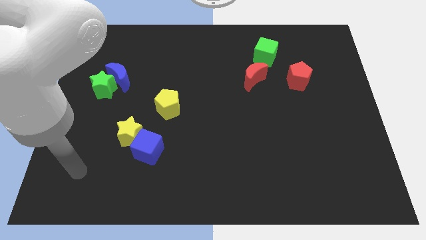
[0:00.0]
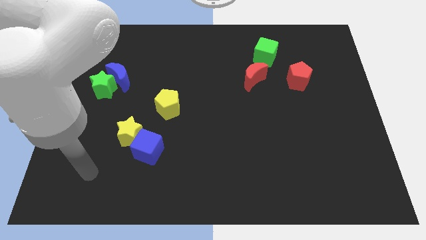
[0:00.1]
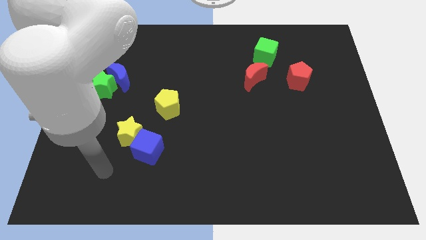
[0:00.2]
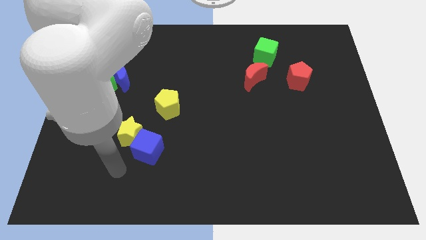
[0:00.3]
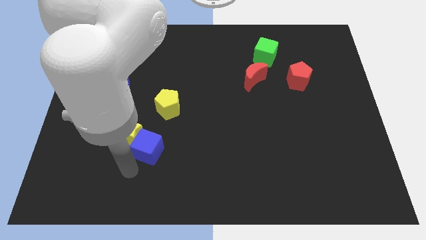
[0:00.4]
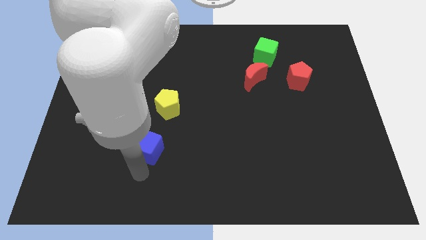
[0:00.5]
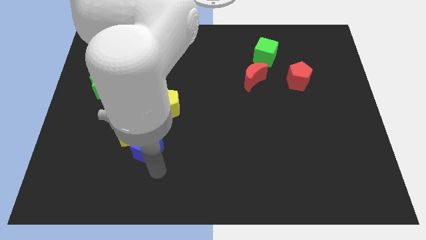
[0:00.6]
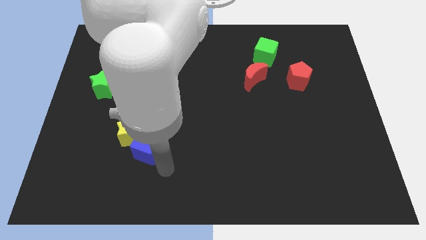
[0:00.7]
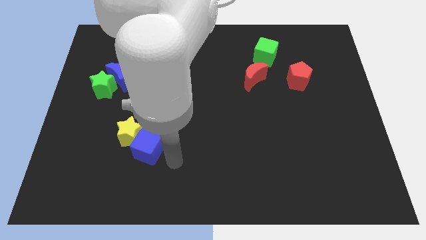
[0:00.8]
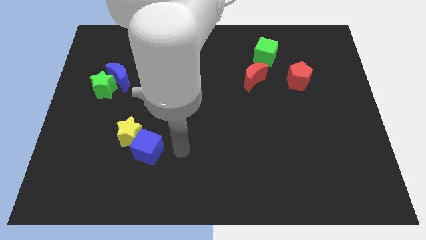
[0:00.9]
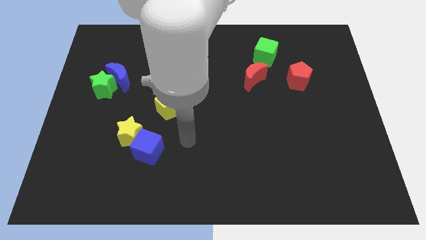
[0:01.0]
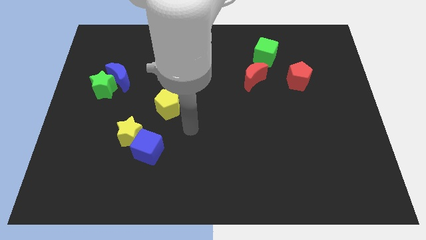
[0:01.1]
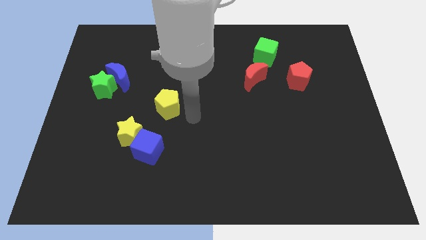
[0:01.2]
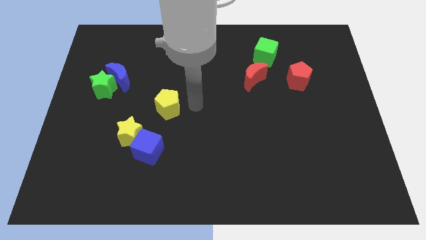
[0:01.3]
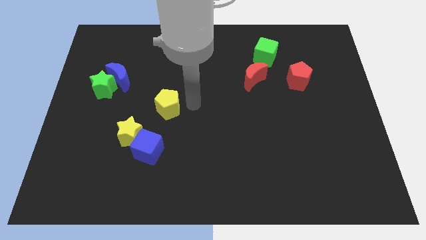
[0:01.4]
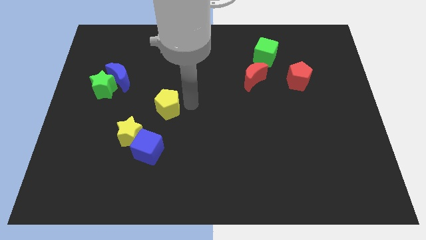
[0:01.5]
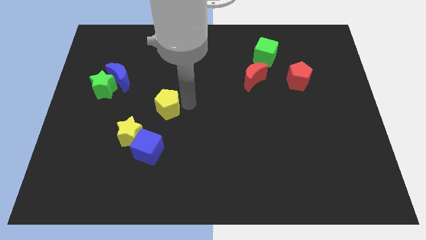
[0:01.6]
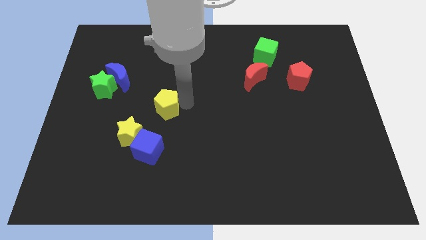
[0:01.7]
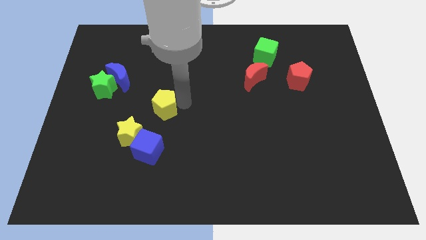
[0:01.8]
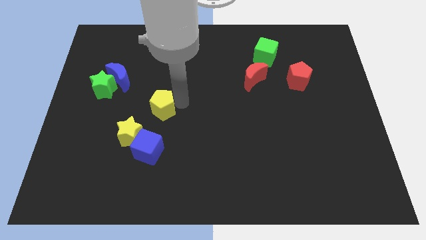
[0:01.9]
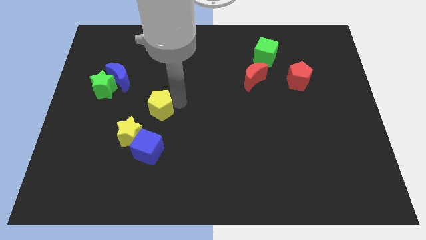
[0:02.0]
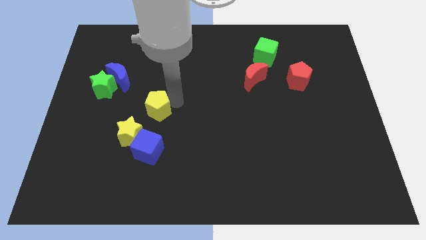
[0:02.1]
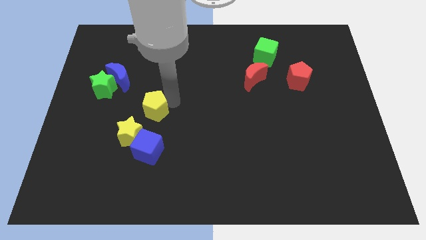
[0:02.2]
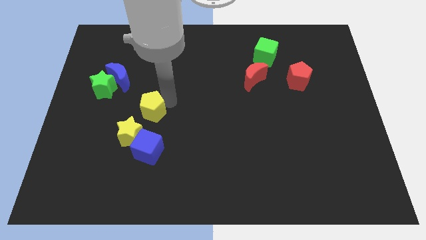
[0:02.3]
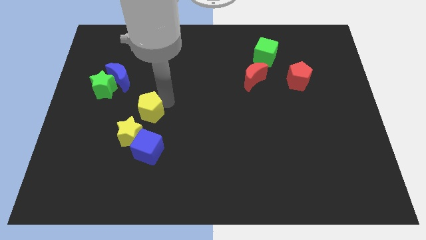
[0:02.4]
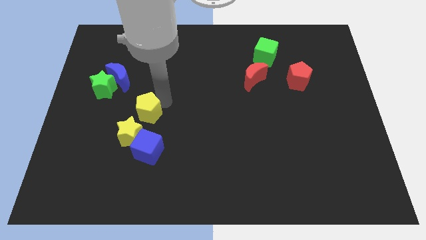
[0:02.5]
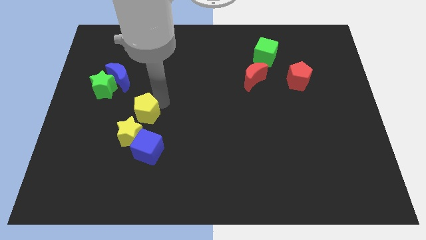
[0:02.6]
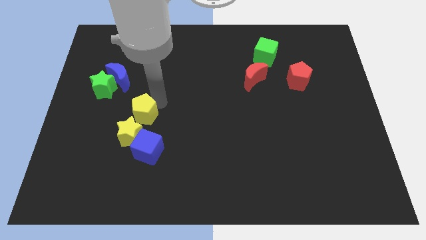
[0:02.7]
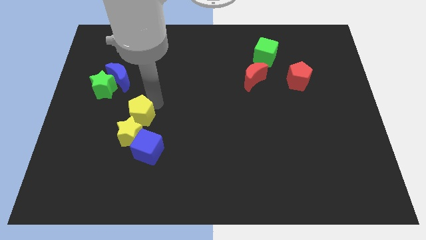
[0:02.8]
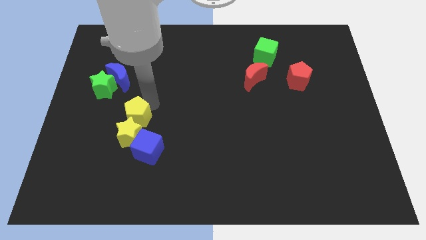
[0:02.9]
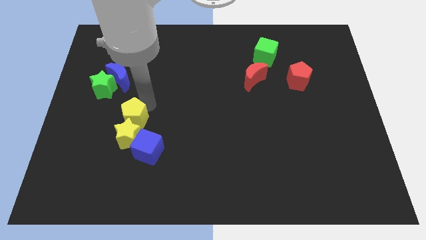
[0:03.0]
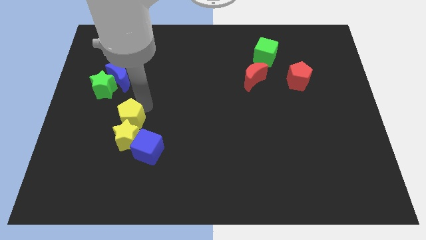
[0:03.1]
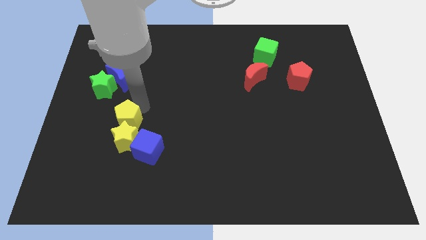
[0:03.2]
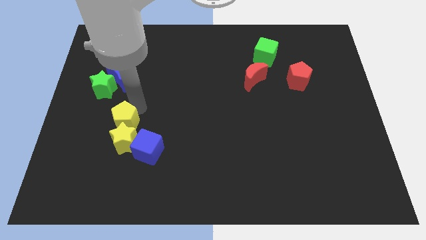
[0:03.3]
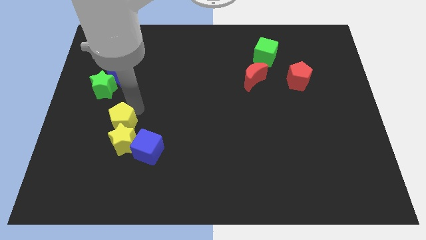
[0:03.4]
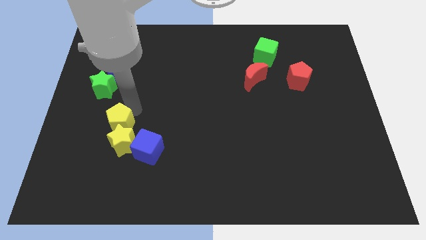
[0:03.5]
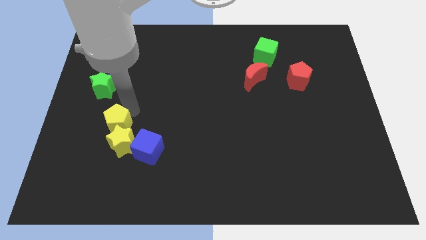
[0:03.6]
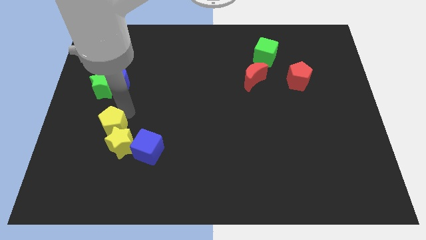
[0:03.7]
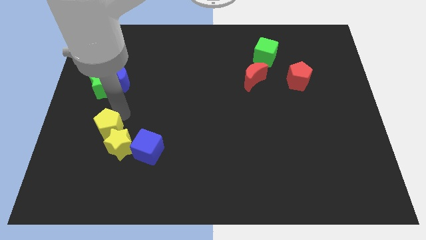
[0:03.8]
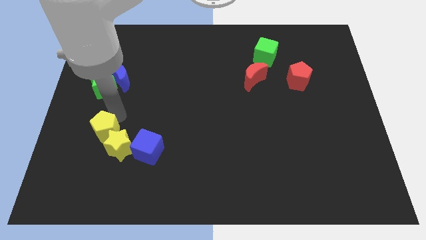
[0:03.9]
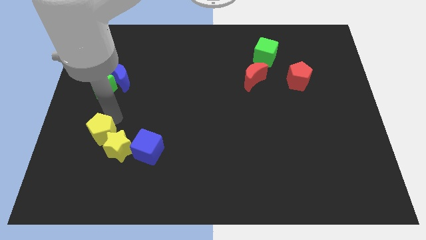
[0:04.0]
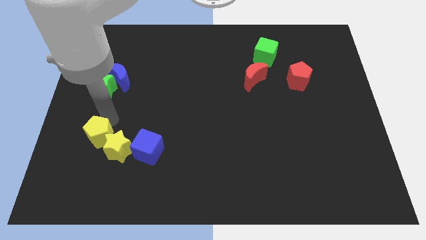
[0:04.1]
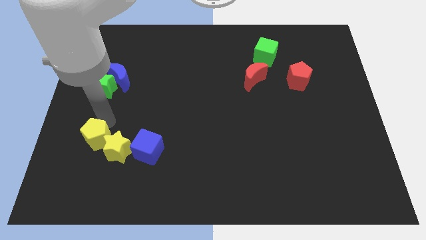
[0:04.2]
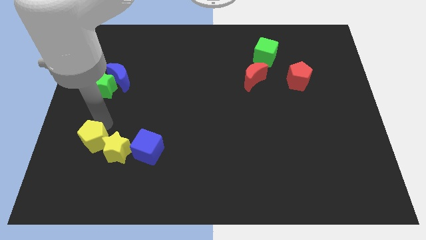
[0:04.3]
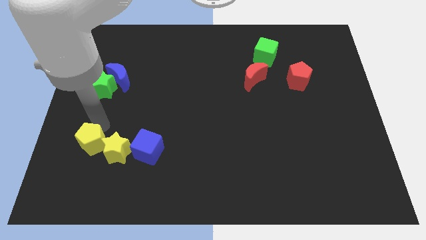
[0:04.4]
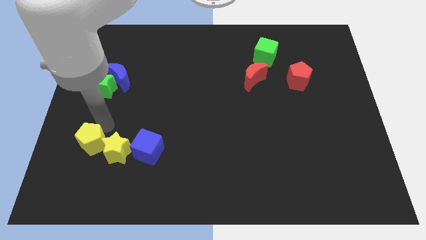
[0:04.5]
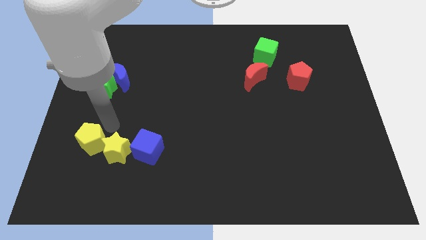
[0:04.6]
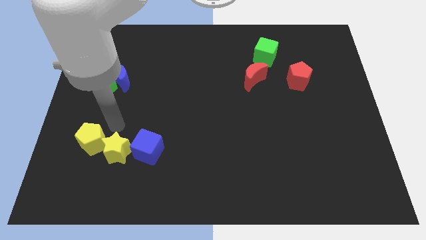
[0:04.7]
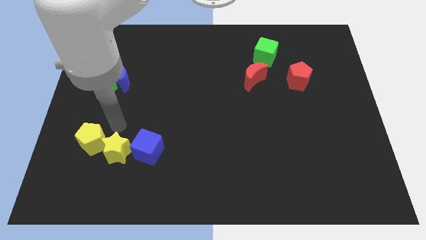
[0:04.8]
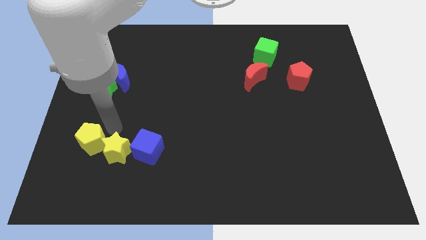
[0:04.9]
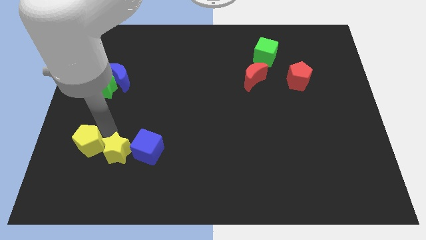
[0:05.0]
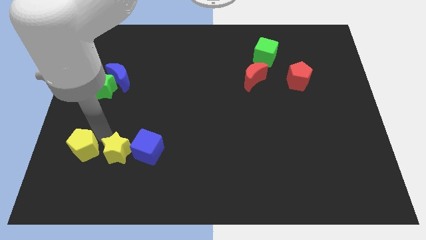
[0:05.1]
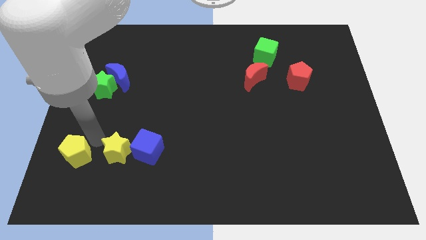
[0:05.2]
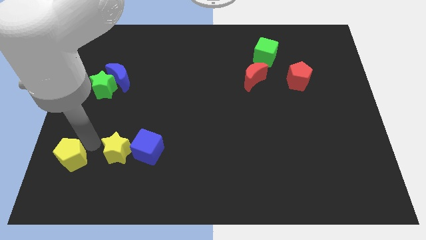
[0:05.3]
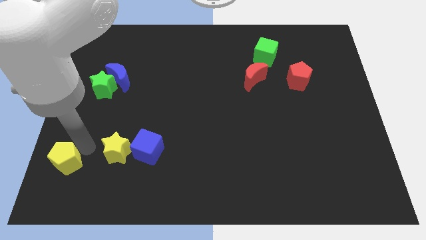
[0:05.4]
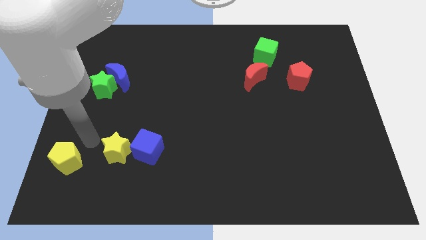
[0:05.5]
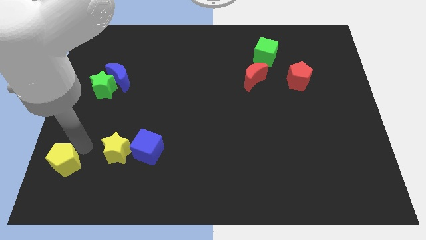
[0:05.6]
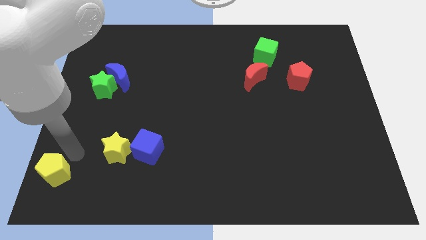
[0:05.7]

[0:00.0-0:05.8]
move the yellow pentagon to the bottom left
